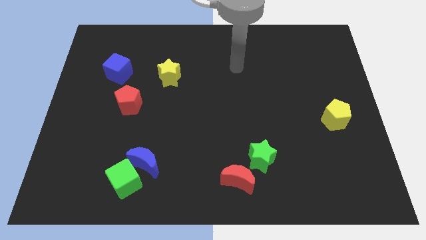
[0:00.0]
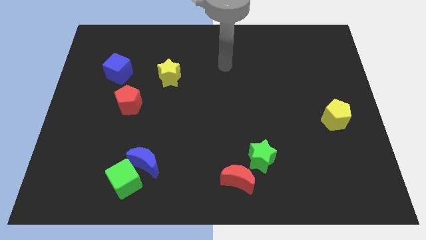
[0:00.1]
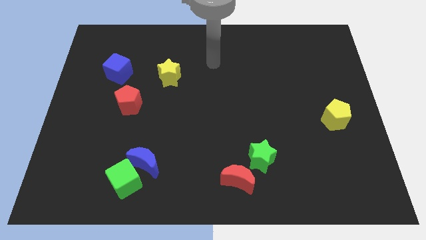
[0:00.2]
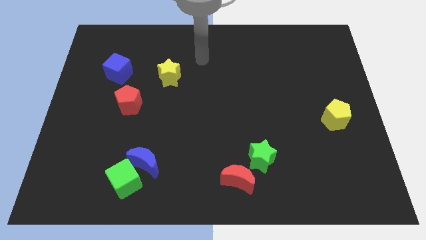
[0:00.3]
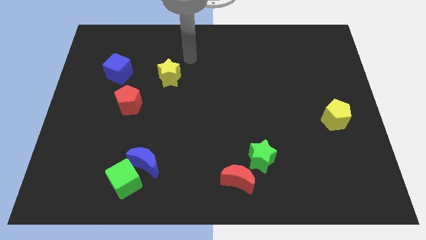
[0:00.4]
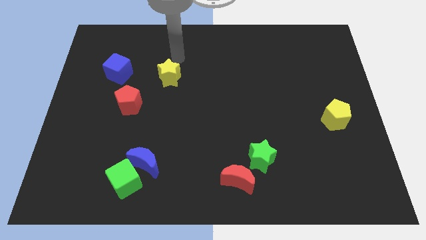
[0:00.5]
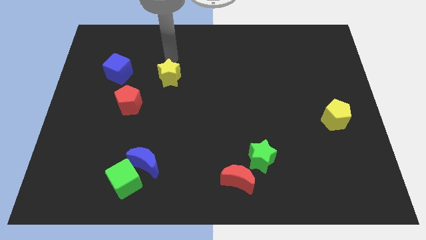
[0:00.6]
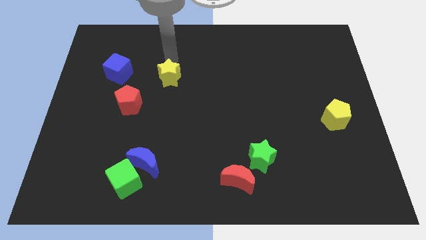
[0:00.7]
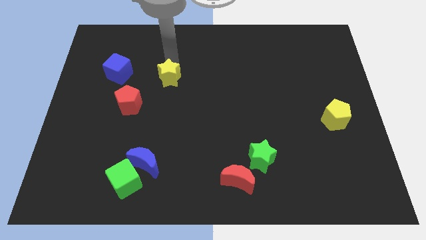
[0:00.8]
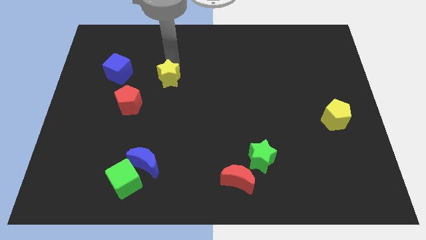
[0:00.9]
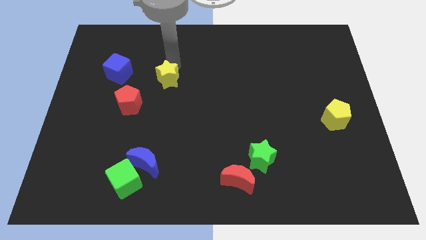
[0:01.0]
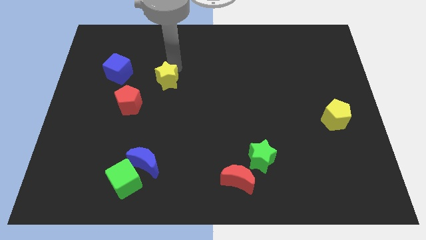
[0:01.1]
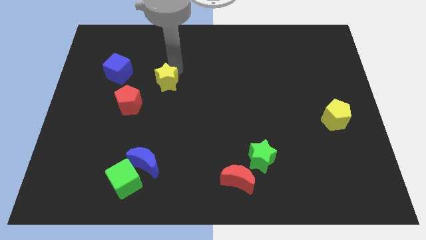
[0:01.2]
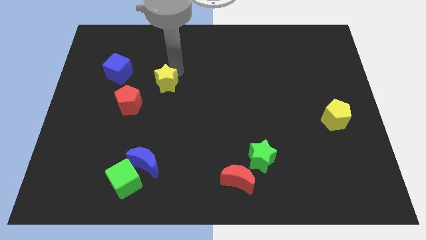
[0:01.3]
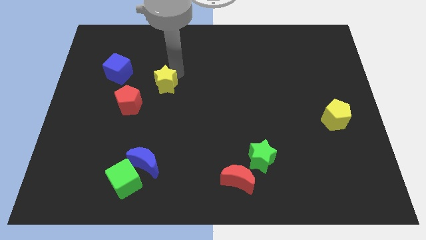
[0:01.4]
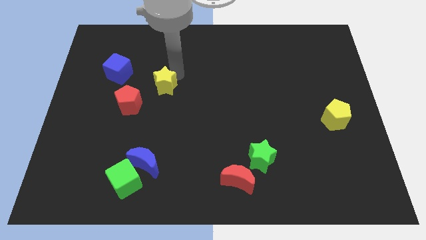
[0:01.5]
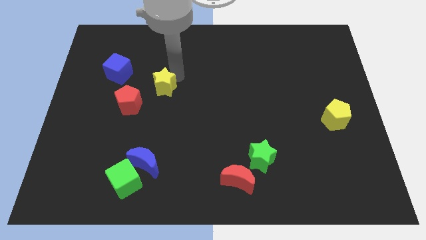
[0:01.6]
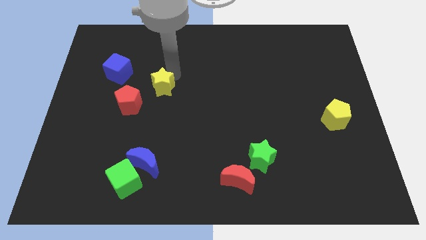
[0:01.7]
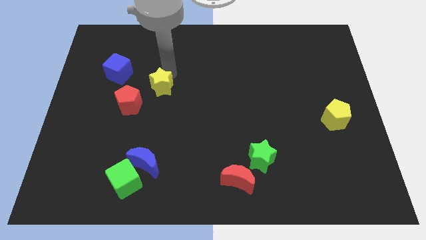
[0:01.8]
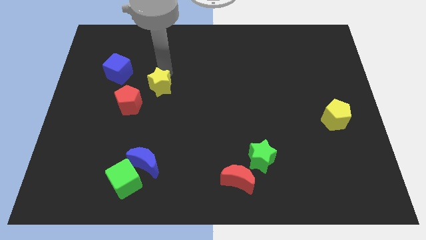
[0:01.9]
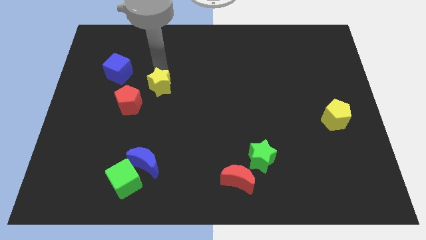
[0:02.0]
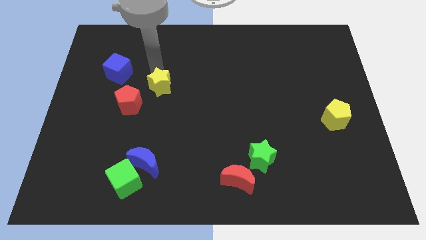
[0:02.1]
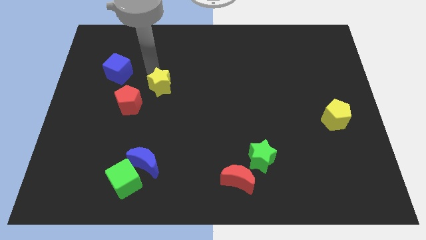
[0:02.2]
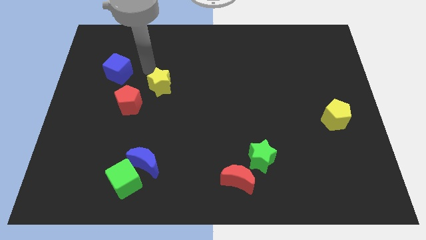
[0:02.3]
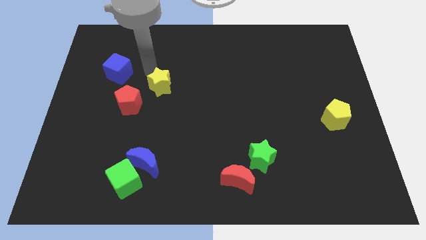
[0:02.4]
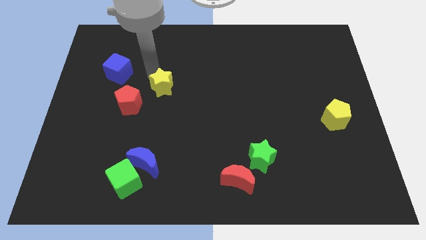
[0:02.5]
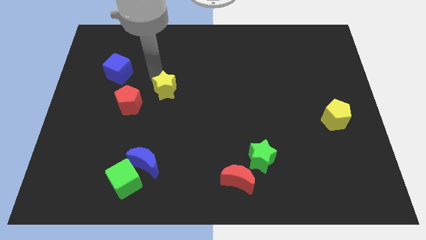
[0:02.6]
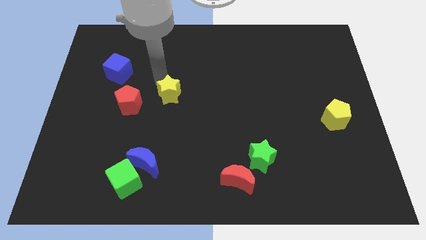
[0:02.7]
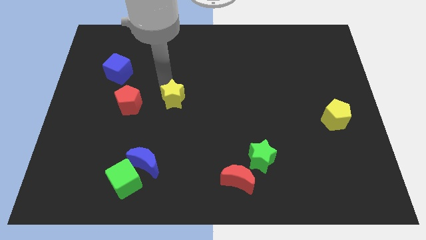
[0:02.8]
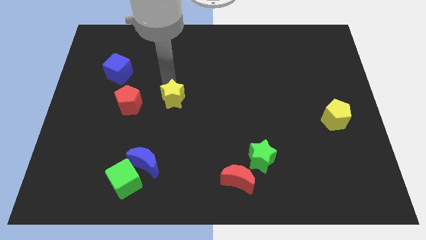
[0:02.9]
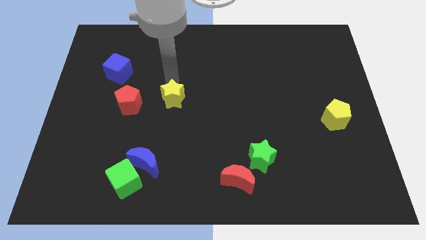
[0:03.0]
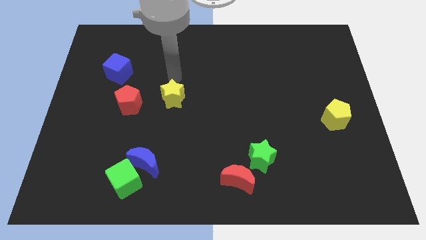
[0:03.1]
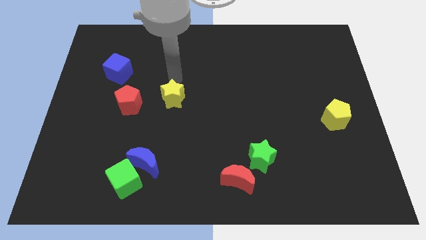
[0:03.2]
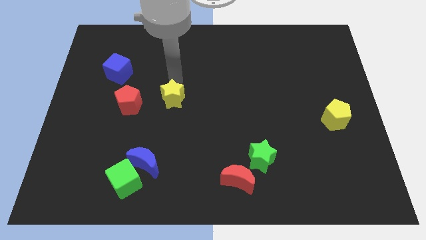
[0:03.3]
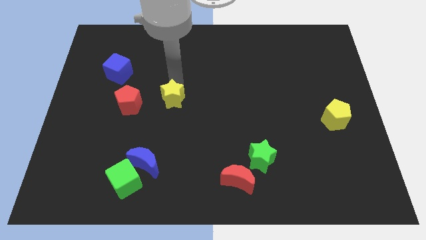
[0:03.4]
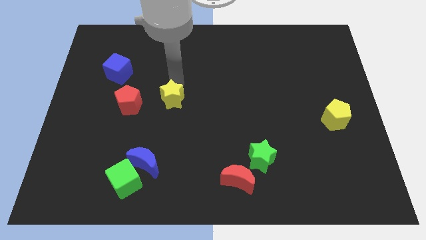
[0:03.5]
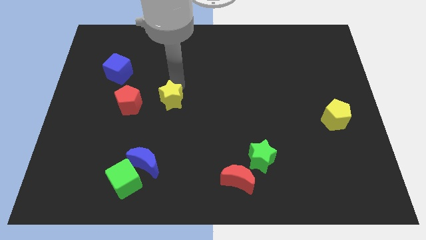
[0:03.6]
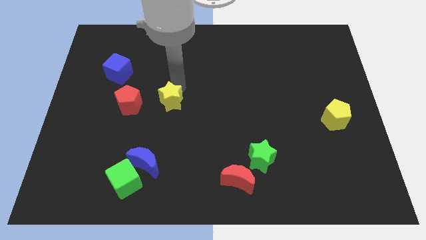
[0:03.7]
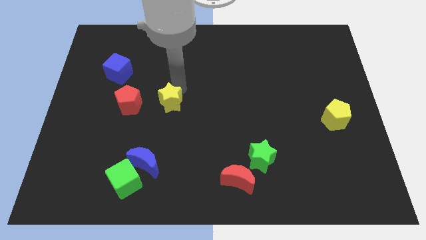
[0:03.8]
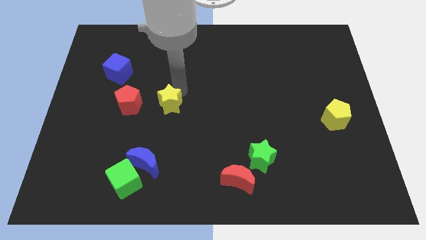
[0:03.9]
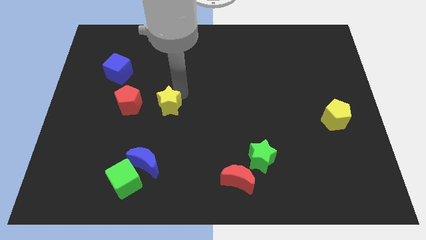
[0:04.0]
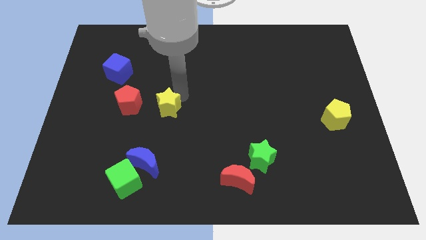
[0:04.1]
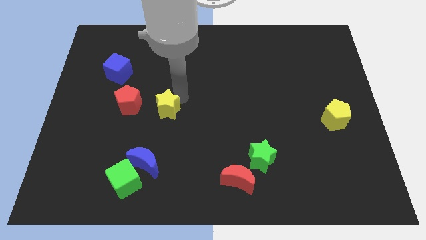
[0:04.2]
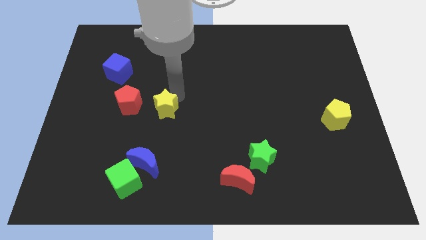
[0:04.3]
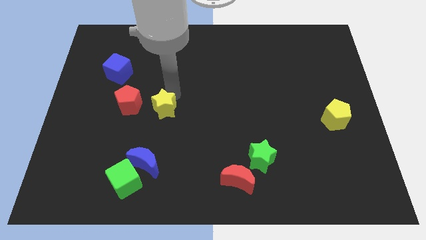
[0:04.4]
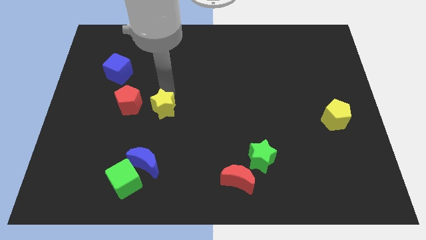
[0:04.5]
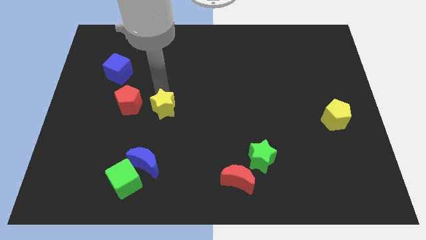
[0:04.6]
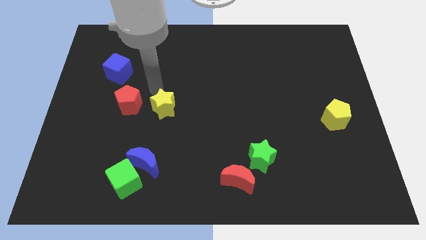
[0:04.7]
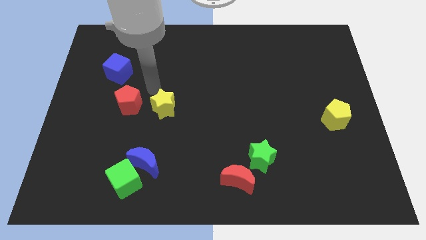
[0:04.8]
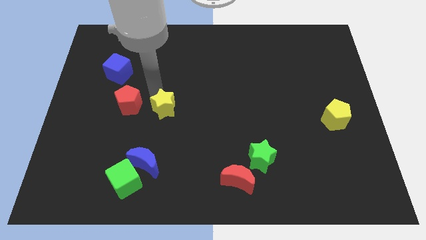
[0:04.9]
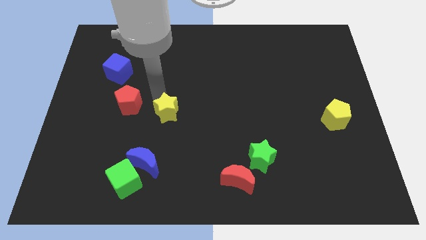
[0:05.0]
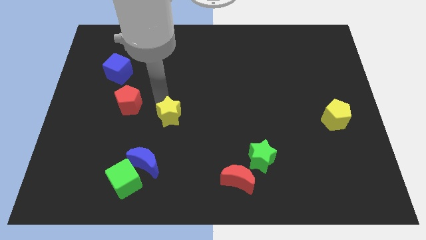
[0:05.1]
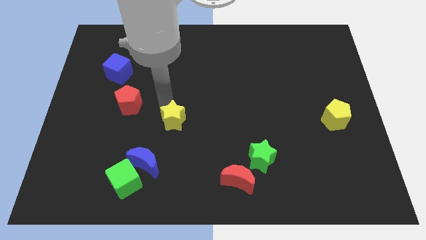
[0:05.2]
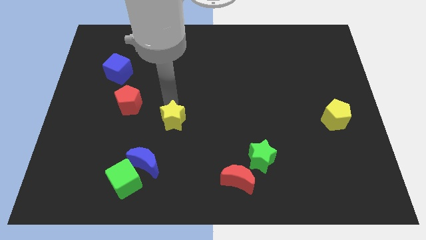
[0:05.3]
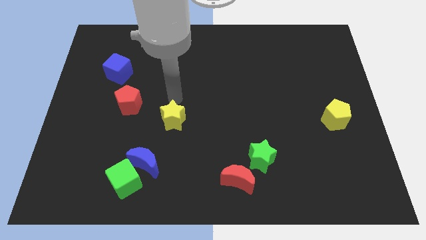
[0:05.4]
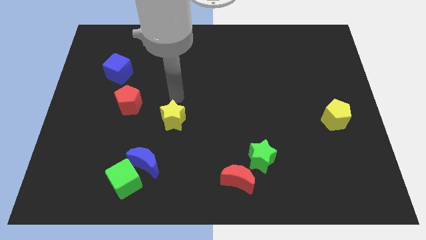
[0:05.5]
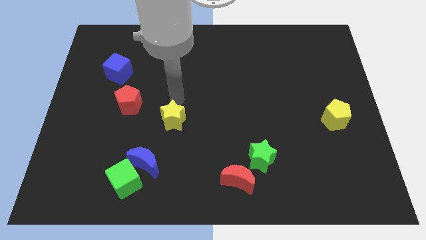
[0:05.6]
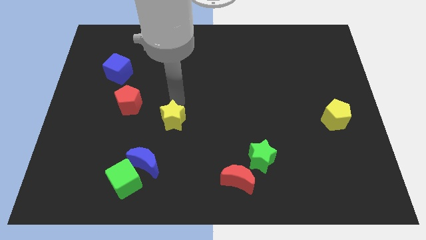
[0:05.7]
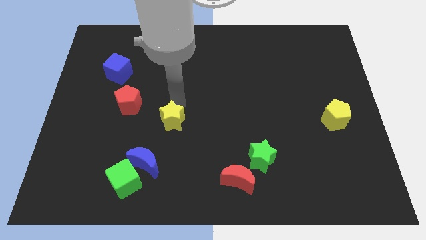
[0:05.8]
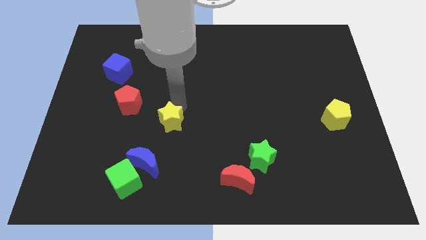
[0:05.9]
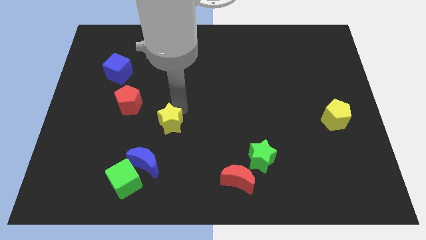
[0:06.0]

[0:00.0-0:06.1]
move the yellow star diagonally up and to the right of the blue moon
